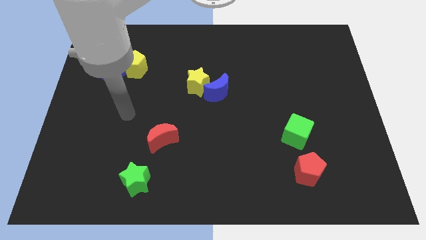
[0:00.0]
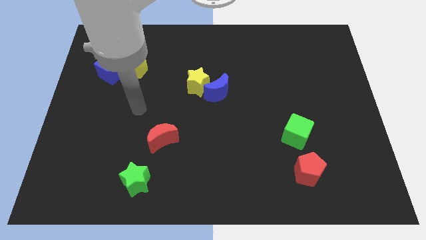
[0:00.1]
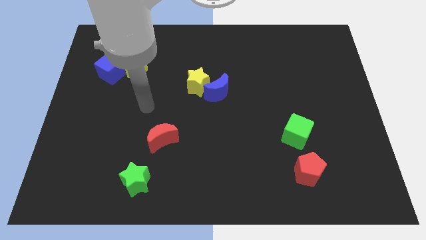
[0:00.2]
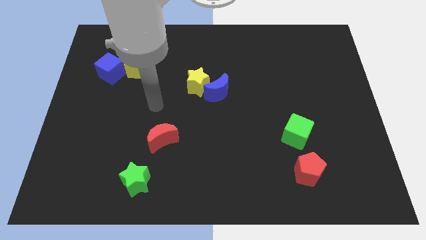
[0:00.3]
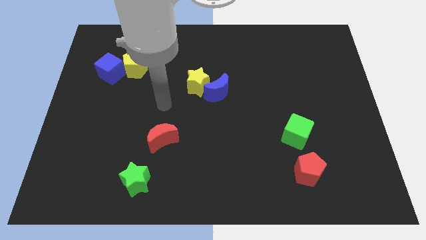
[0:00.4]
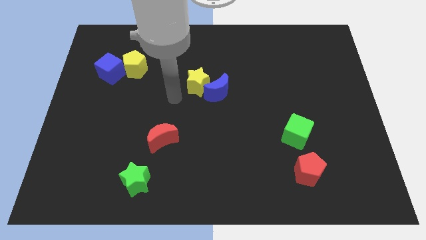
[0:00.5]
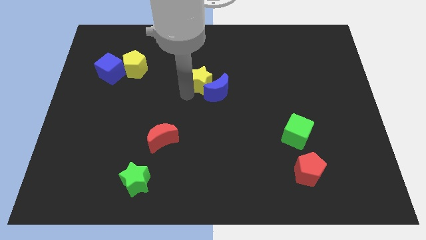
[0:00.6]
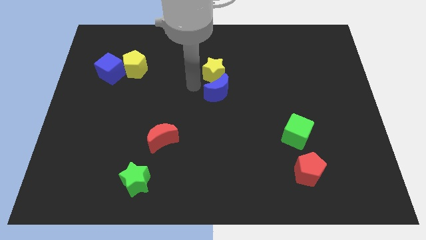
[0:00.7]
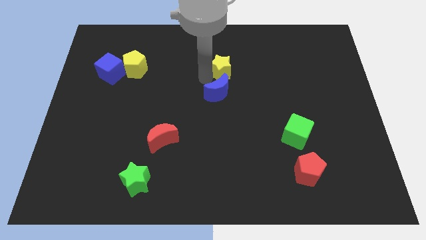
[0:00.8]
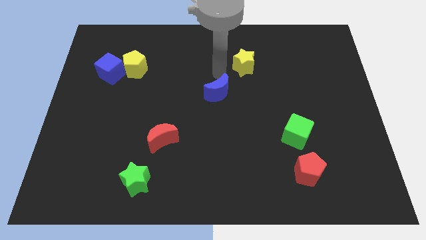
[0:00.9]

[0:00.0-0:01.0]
move the blue moon away from the yellow star

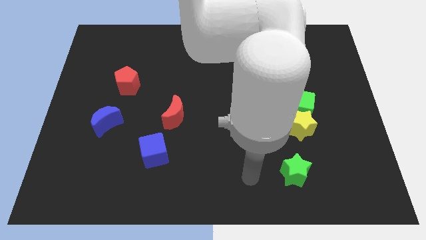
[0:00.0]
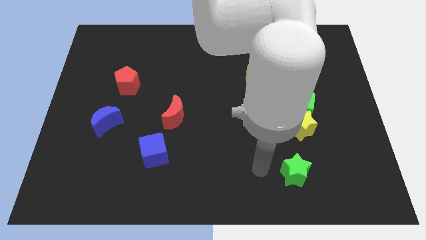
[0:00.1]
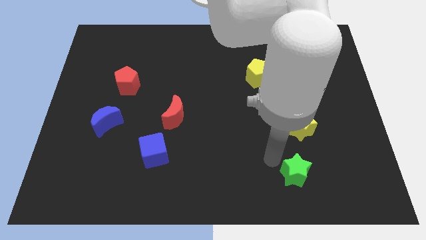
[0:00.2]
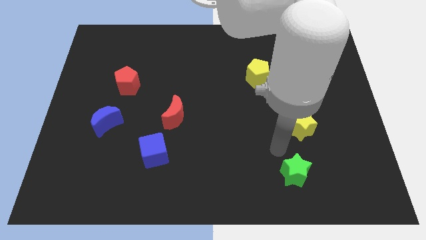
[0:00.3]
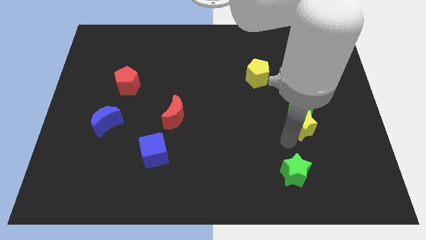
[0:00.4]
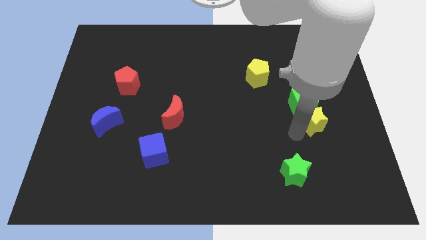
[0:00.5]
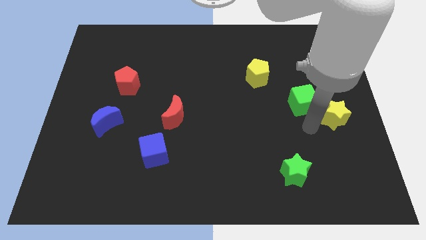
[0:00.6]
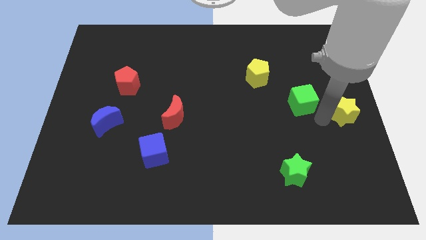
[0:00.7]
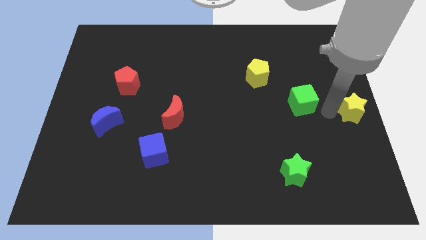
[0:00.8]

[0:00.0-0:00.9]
separate the green cube from the yellow star

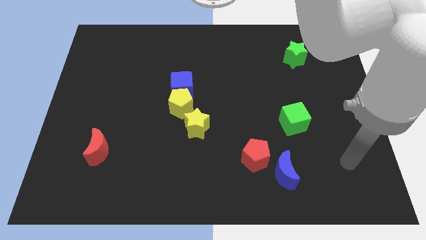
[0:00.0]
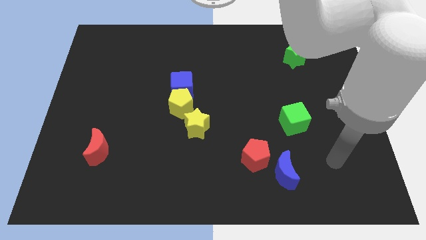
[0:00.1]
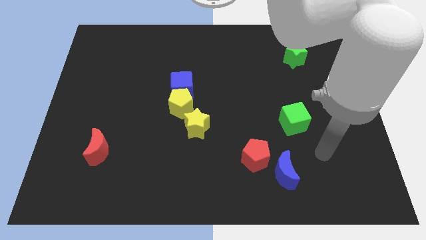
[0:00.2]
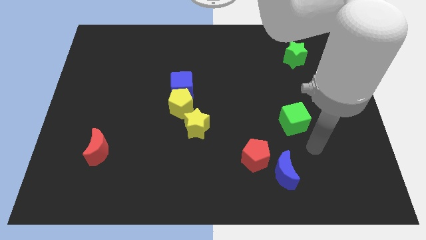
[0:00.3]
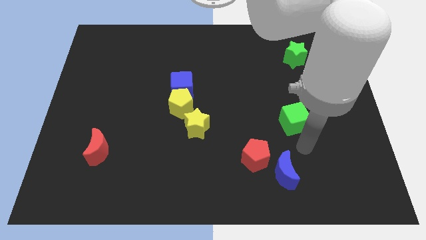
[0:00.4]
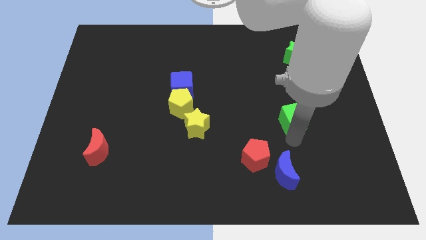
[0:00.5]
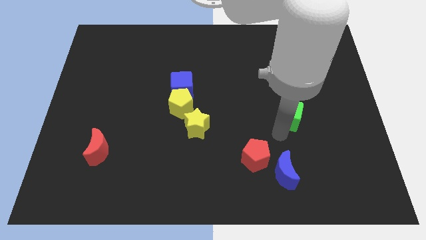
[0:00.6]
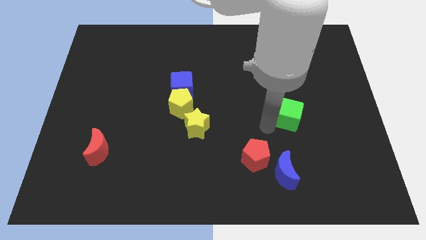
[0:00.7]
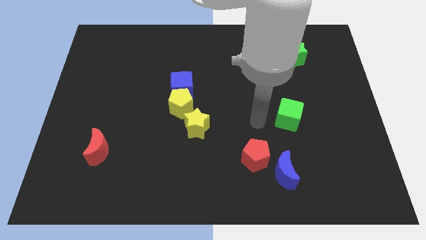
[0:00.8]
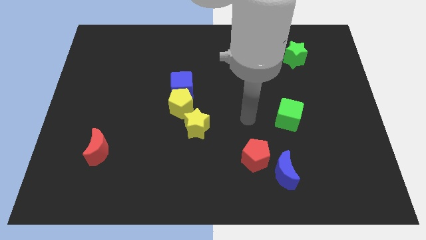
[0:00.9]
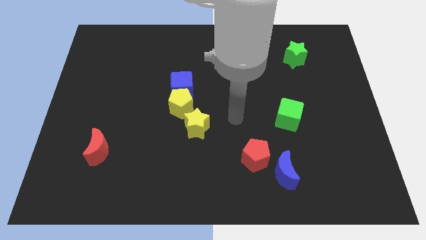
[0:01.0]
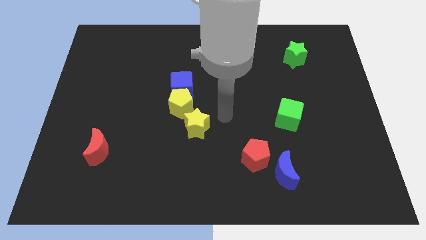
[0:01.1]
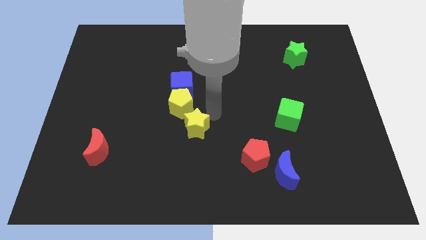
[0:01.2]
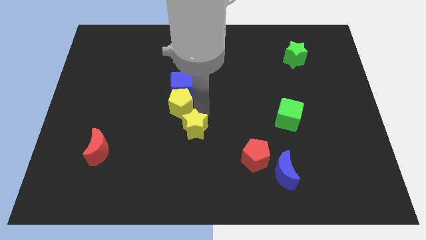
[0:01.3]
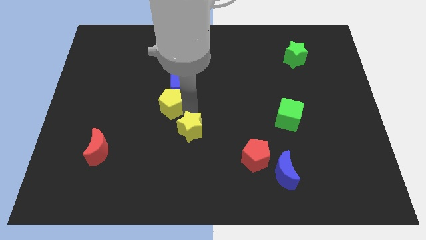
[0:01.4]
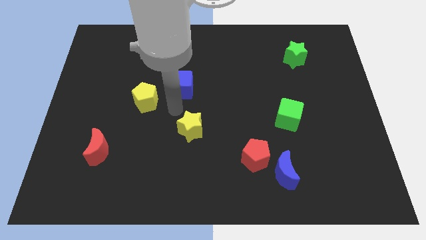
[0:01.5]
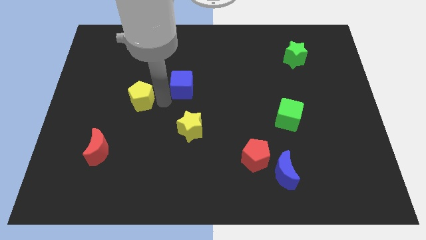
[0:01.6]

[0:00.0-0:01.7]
pull the blue cube apart from the yellow pentagon

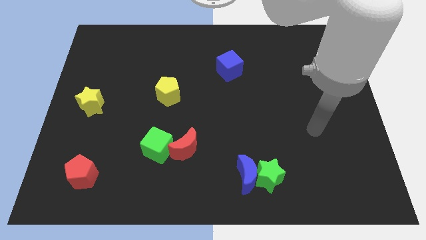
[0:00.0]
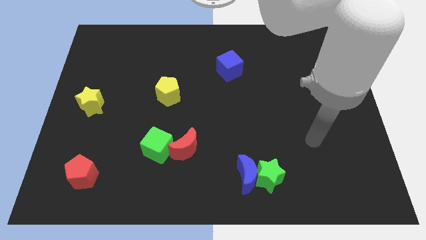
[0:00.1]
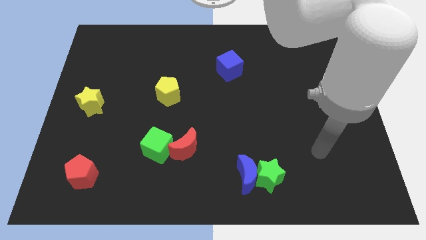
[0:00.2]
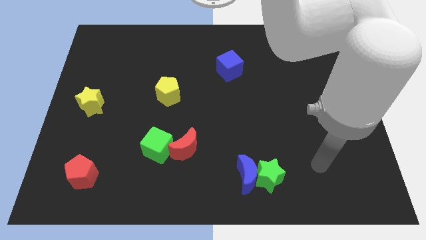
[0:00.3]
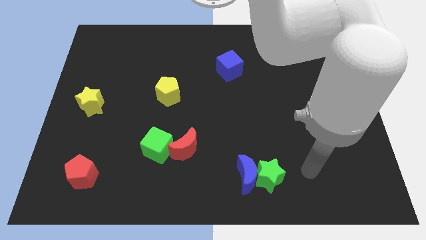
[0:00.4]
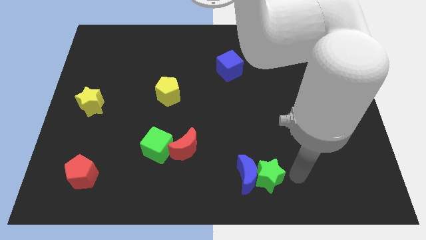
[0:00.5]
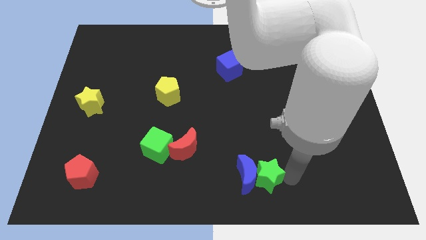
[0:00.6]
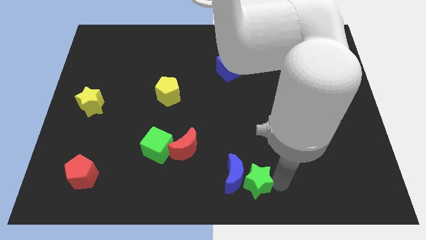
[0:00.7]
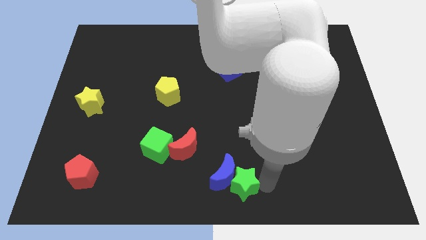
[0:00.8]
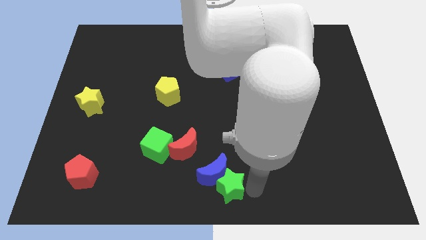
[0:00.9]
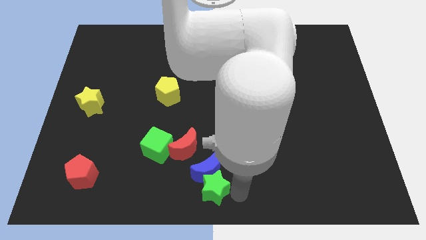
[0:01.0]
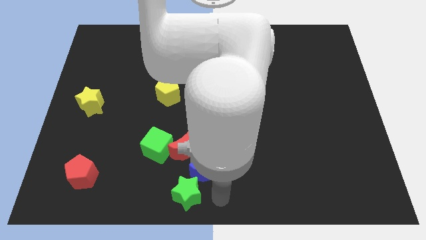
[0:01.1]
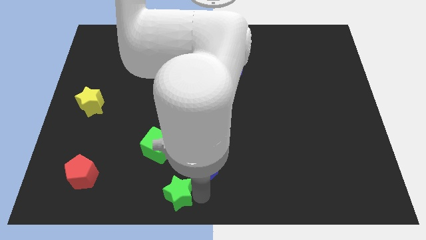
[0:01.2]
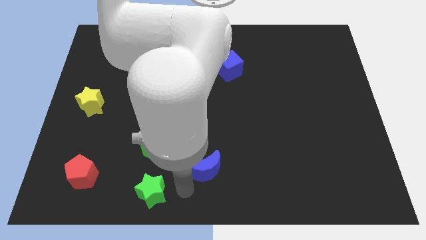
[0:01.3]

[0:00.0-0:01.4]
move the blue moon away from the green star

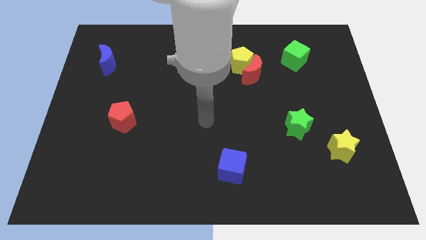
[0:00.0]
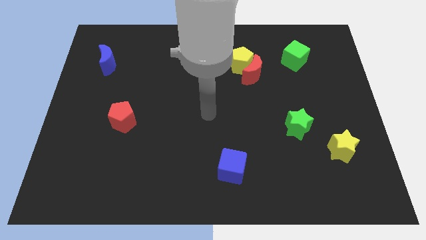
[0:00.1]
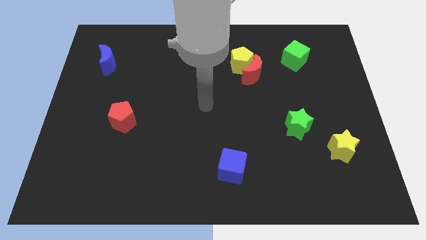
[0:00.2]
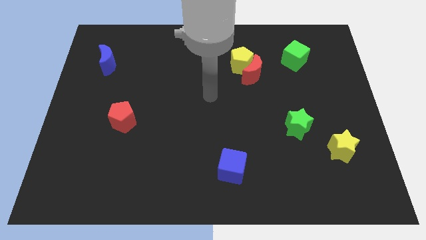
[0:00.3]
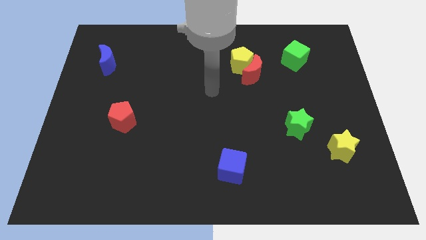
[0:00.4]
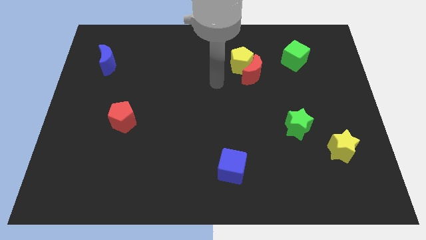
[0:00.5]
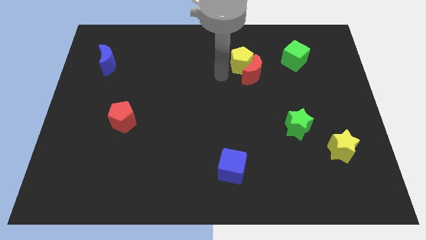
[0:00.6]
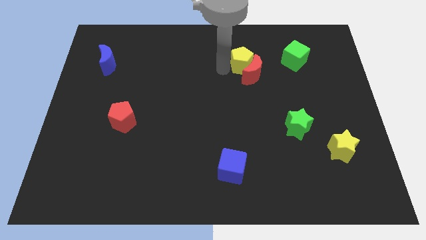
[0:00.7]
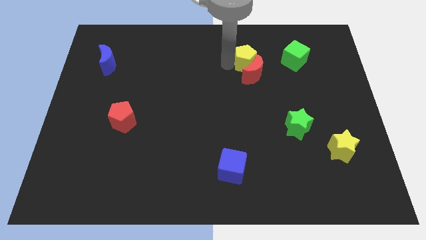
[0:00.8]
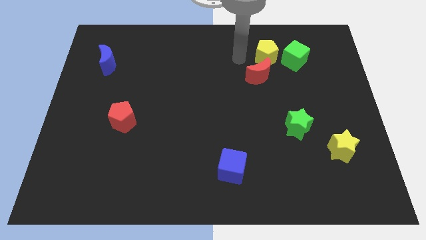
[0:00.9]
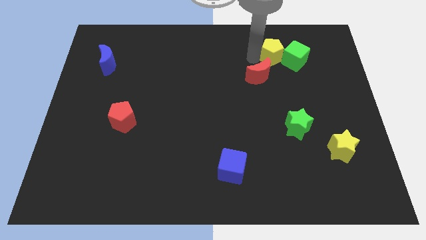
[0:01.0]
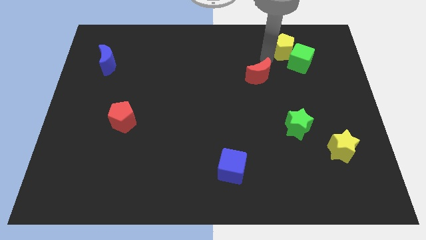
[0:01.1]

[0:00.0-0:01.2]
move the red moon away from the yellow pentagon

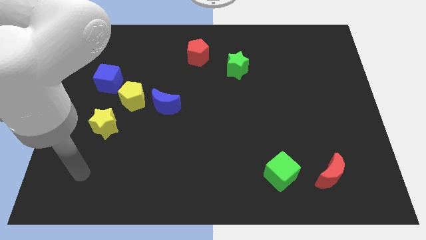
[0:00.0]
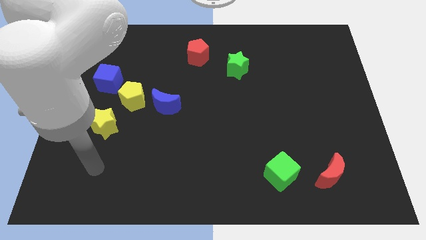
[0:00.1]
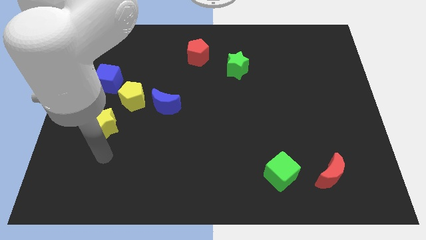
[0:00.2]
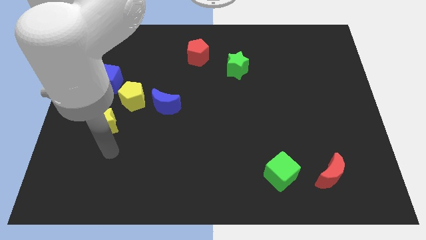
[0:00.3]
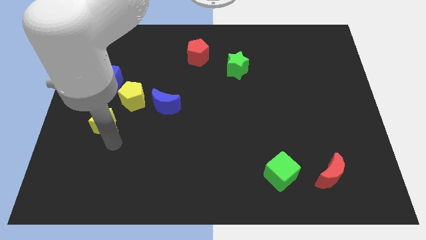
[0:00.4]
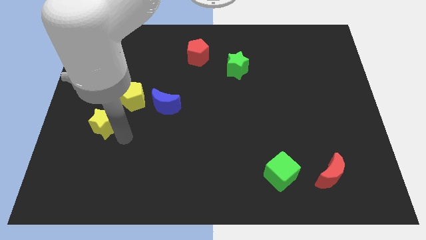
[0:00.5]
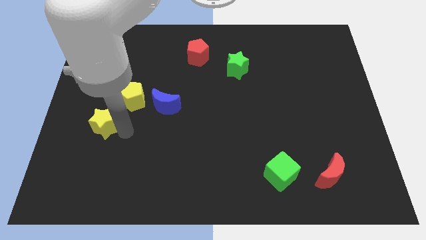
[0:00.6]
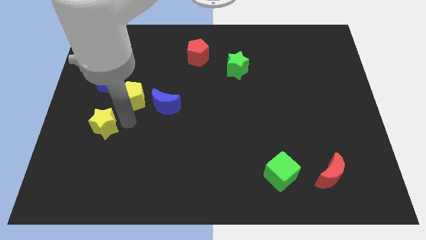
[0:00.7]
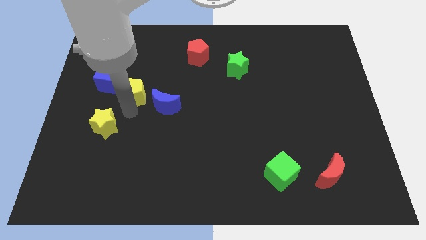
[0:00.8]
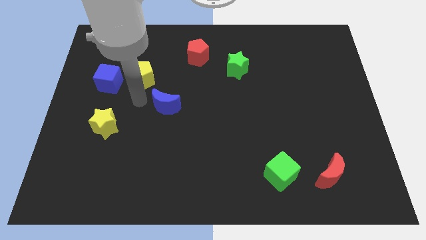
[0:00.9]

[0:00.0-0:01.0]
move the blue moon away from the yellow pentagon

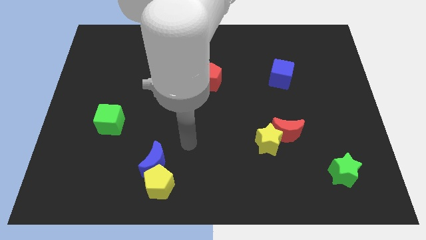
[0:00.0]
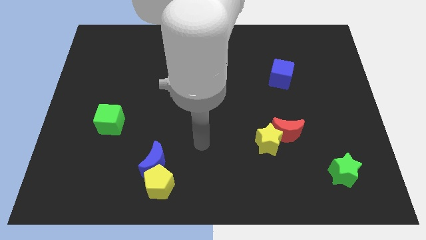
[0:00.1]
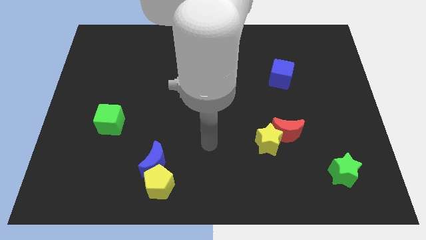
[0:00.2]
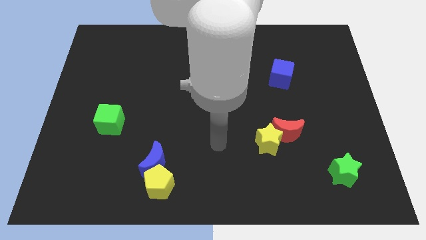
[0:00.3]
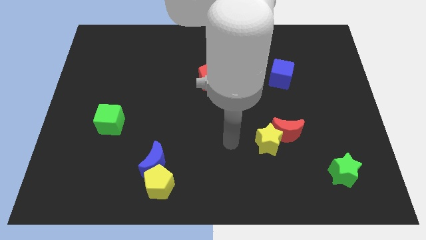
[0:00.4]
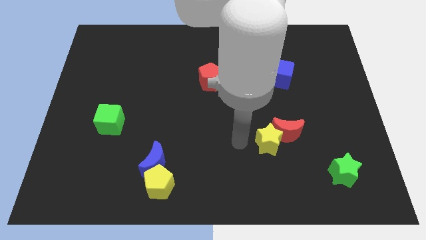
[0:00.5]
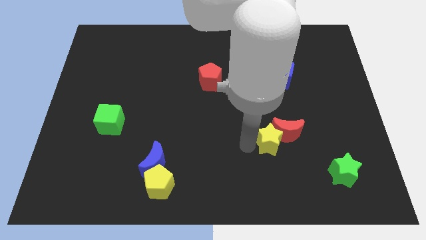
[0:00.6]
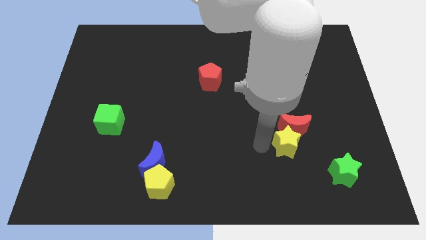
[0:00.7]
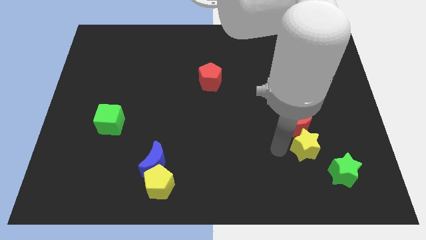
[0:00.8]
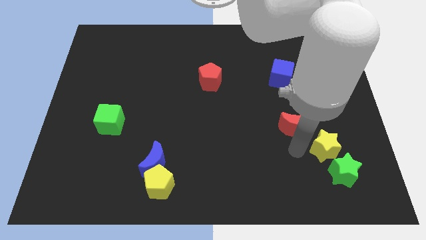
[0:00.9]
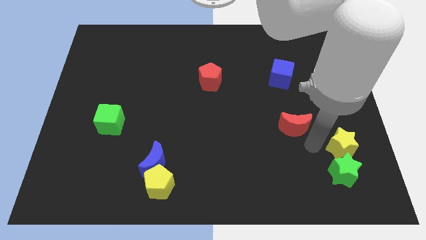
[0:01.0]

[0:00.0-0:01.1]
separate the red moon from the yellow star

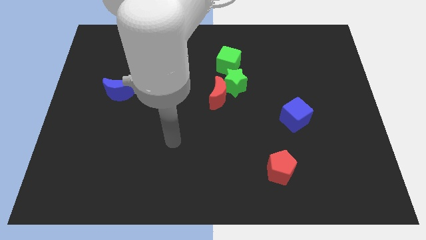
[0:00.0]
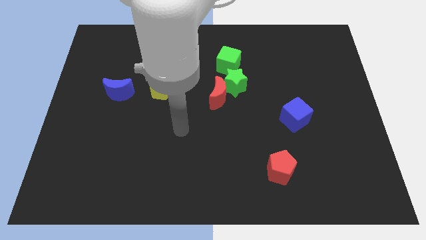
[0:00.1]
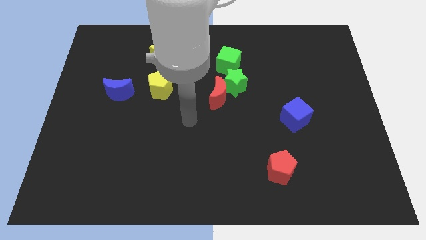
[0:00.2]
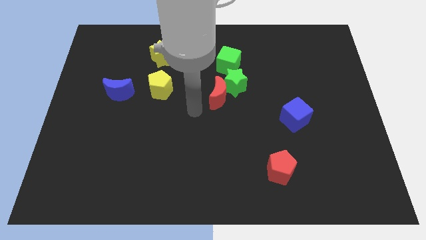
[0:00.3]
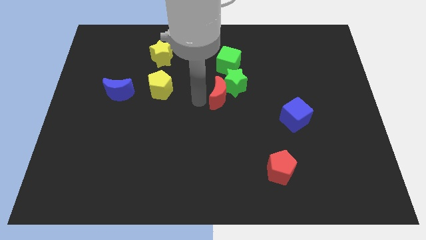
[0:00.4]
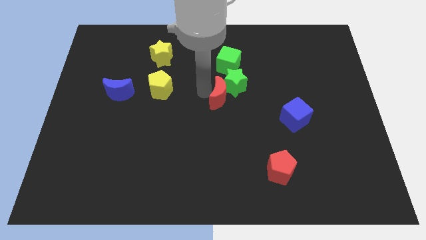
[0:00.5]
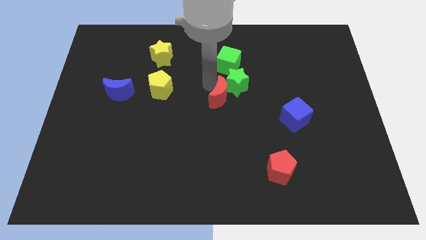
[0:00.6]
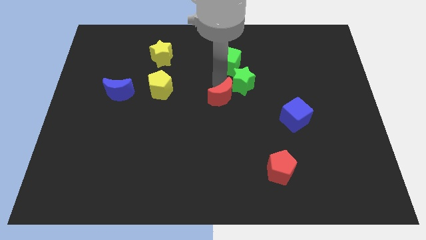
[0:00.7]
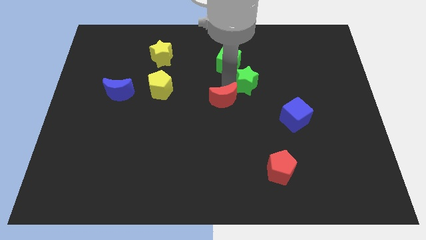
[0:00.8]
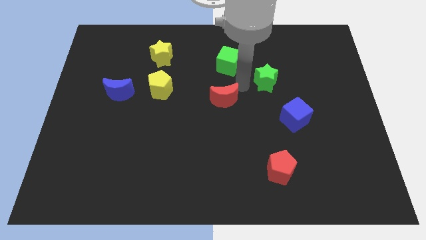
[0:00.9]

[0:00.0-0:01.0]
separate the red moon from the green star
